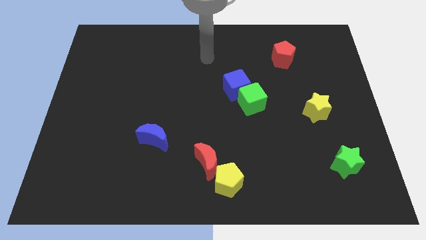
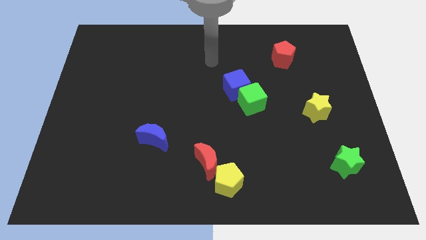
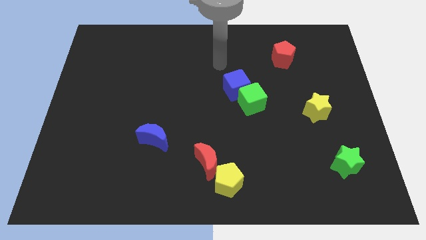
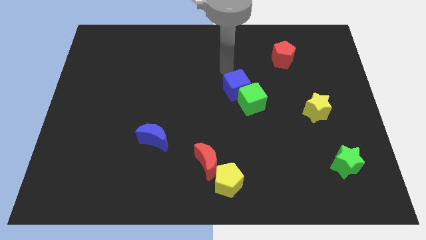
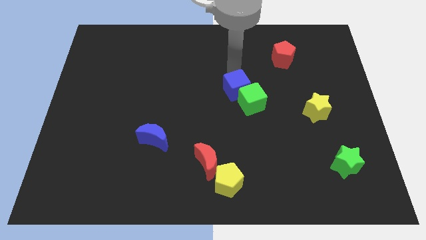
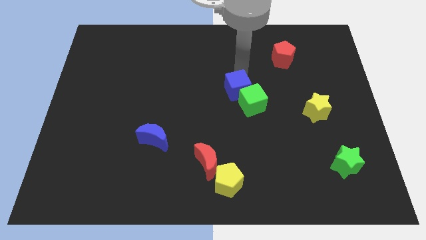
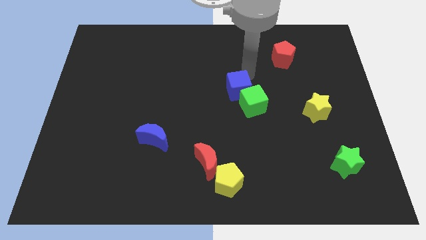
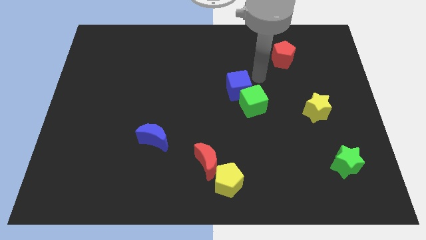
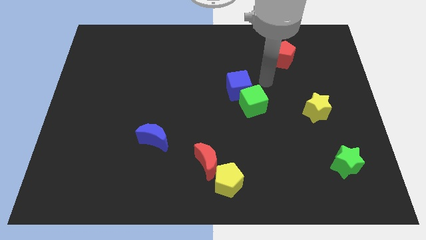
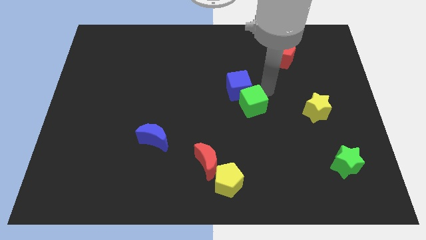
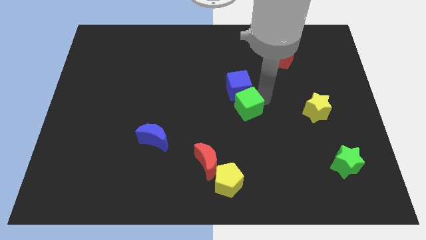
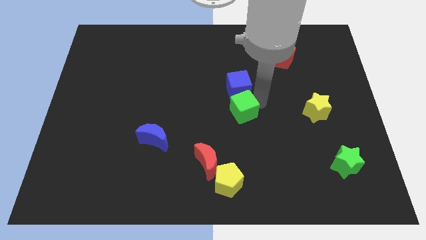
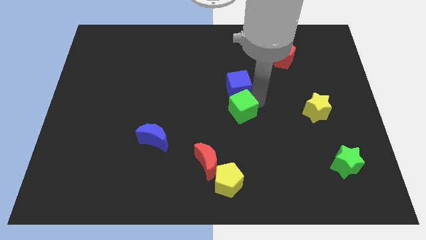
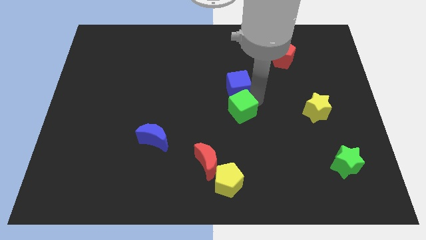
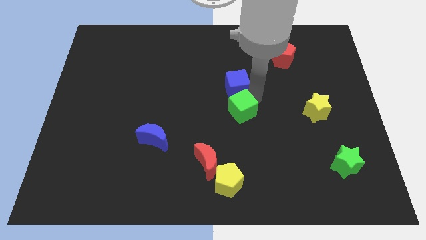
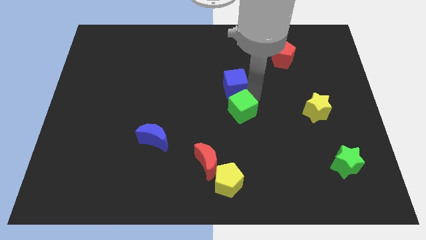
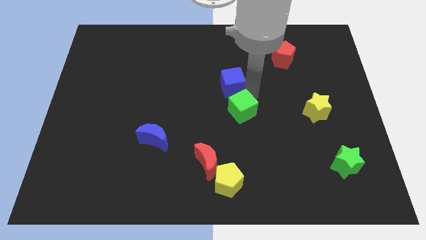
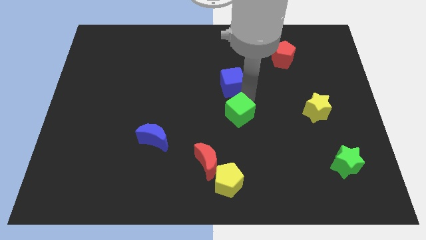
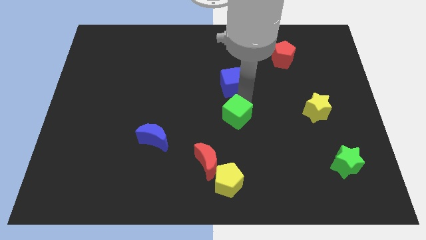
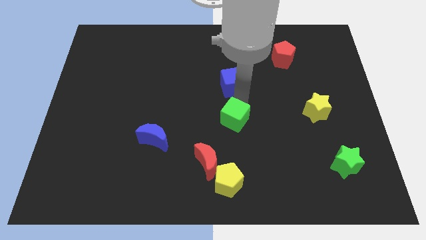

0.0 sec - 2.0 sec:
separate the blue cube from the green cube

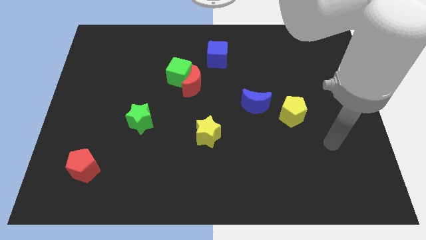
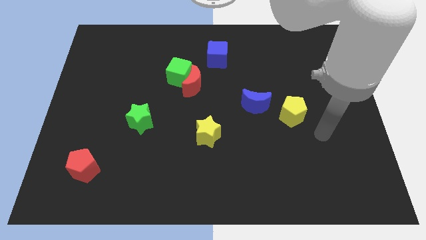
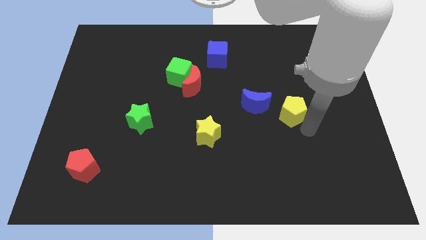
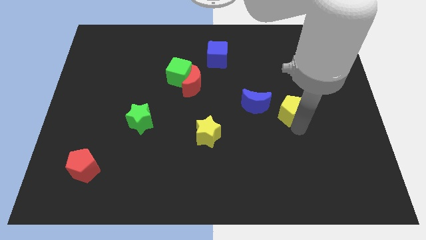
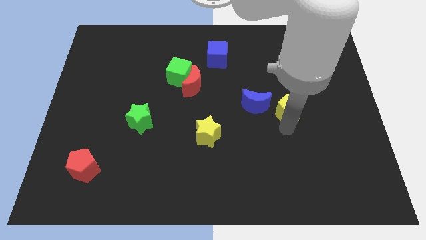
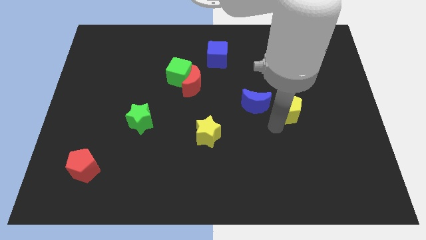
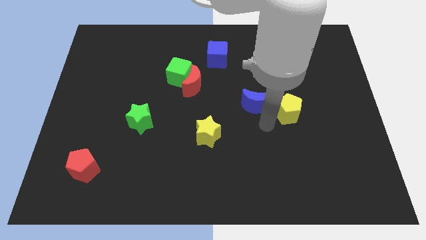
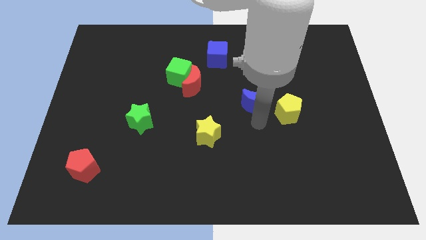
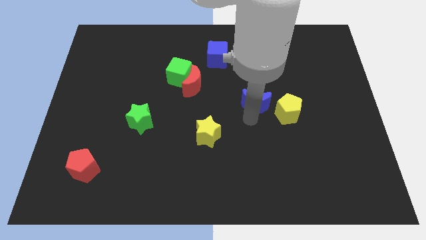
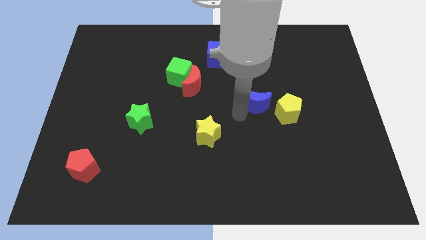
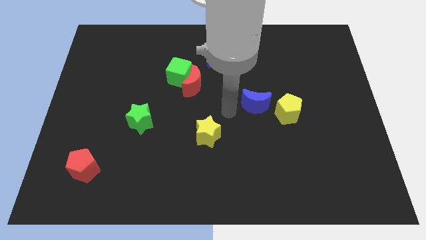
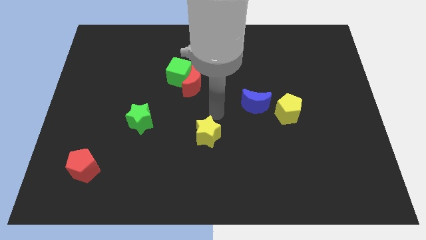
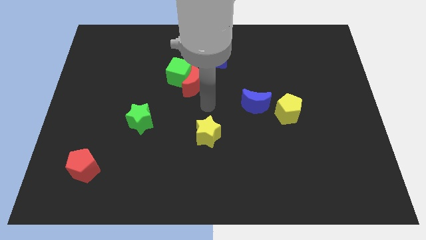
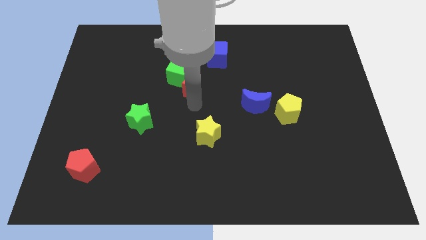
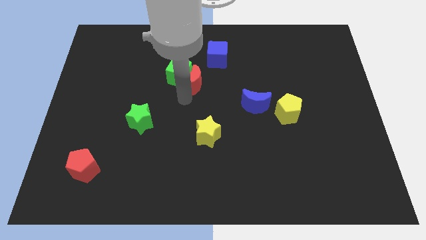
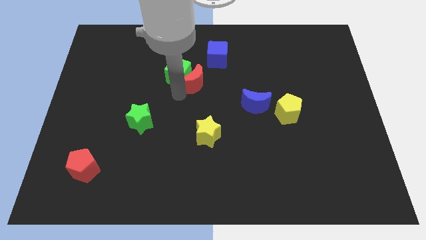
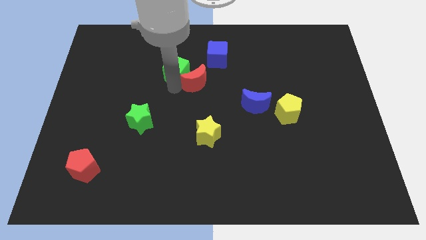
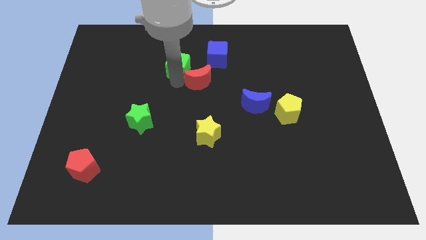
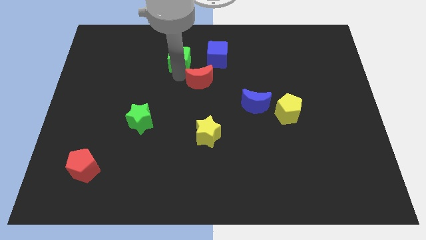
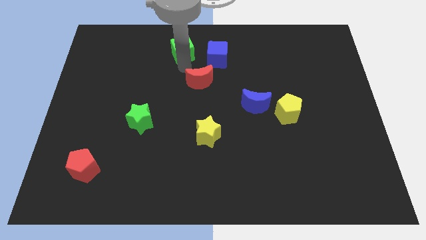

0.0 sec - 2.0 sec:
separate the red moon from the green cube

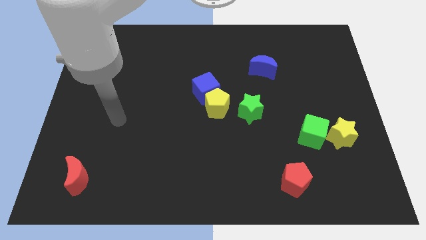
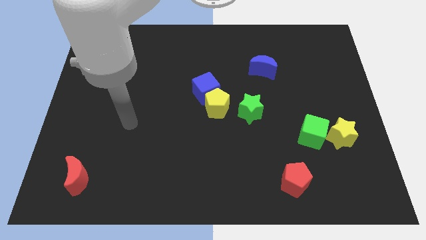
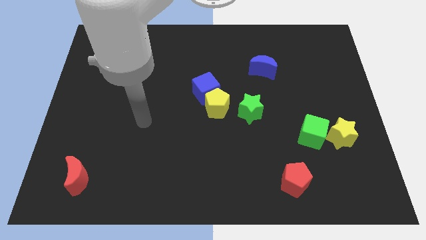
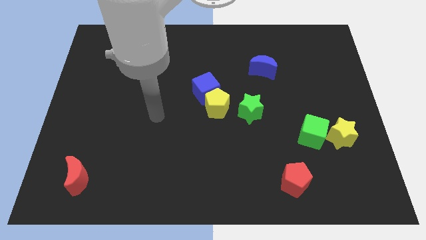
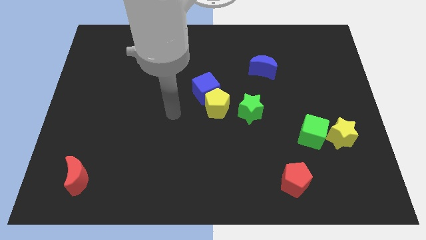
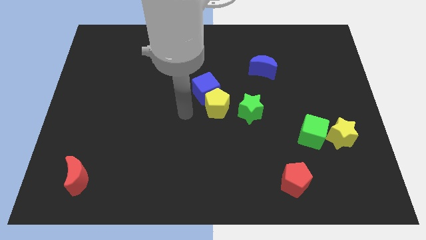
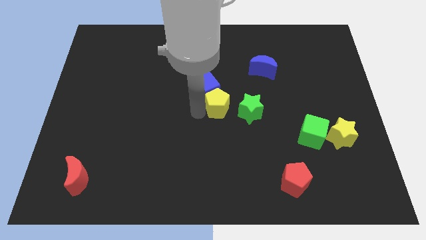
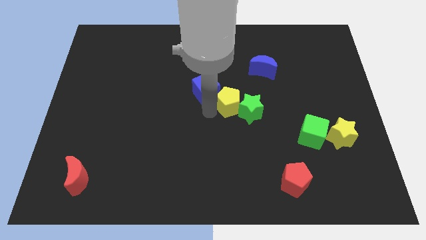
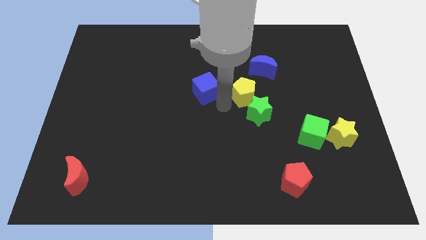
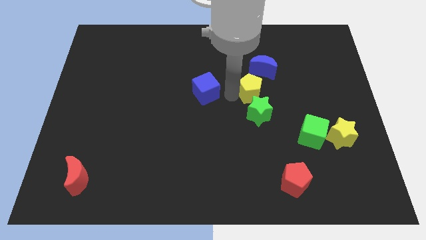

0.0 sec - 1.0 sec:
pull the blue cube apart from the yellow pentagon

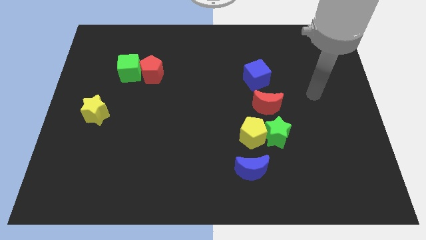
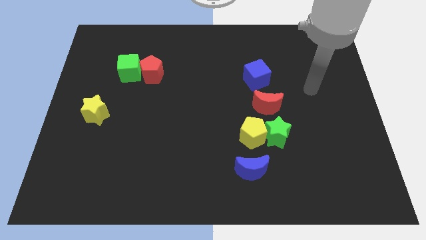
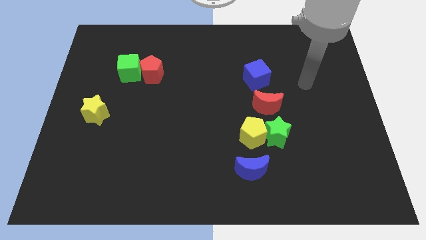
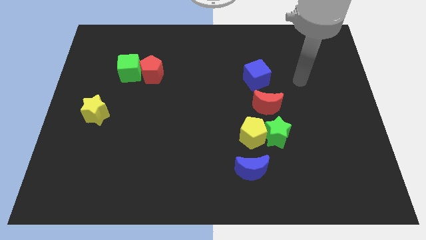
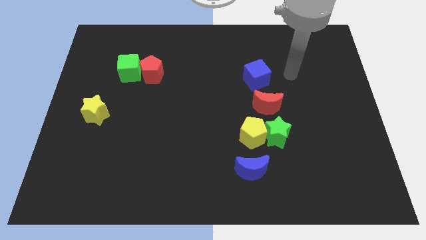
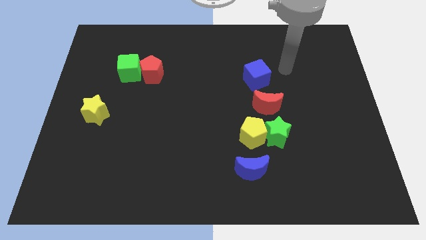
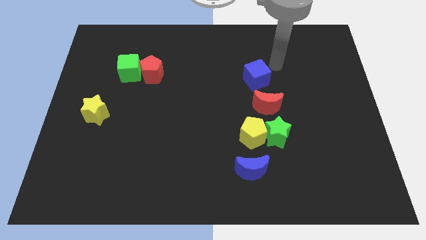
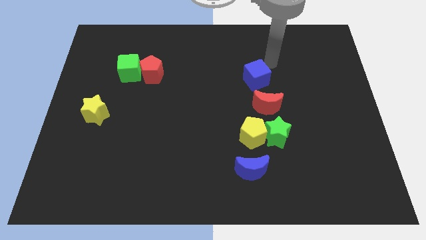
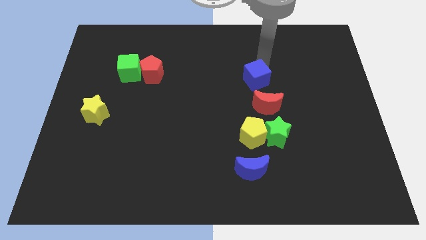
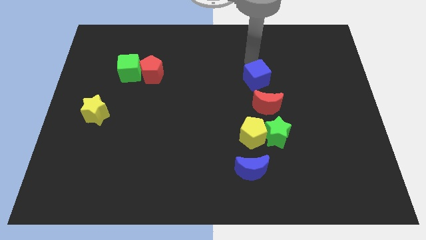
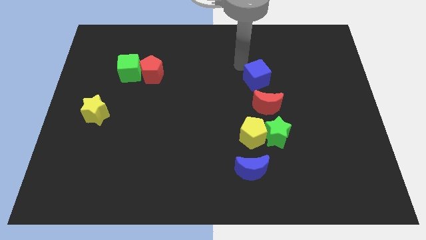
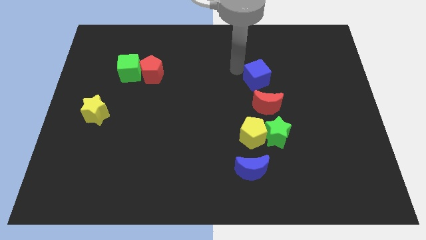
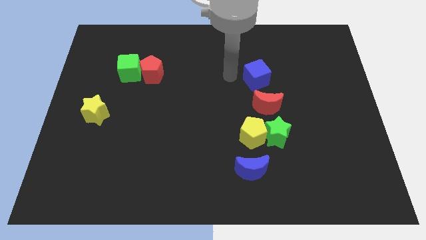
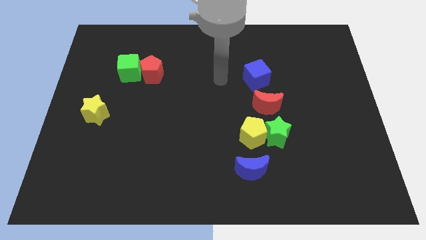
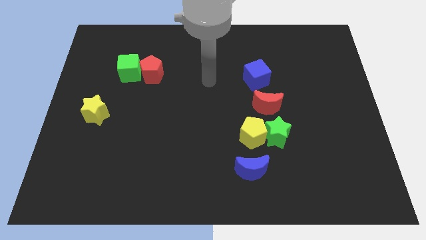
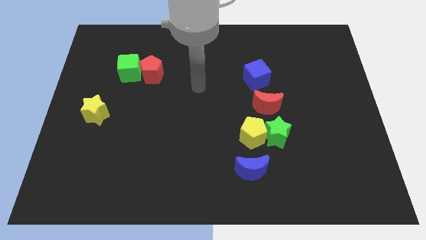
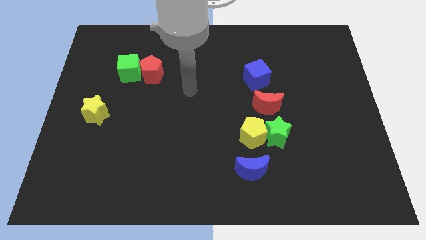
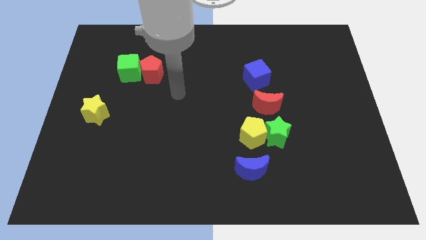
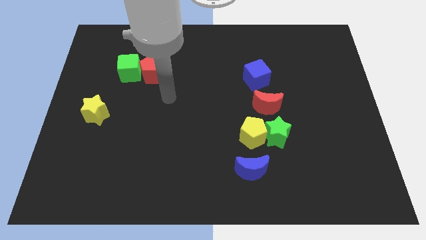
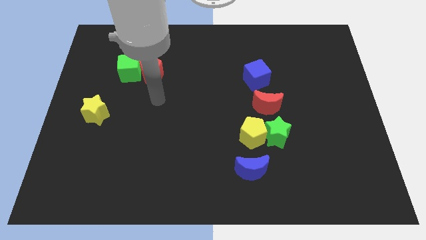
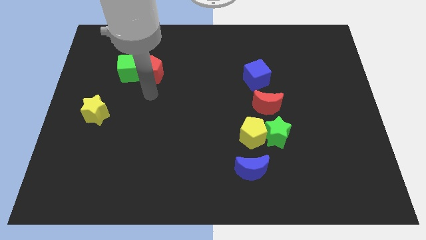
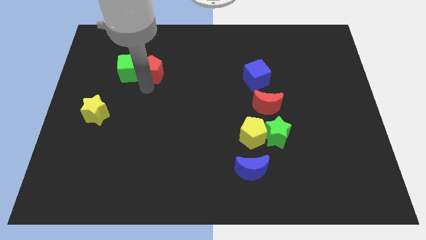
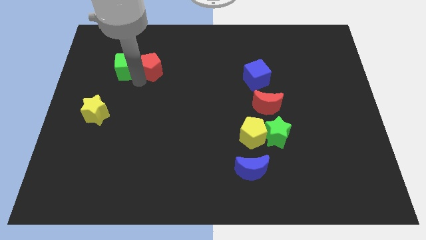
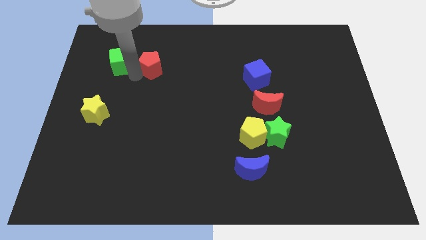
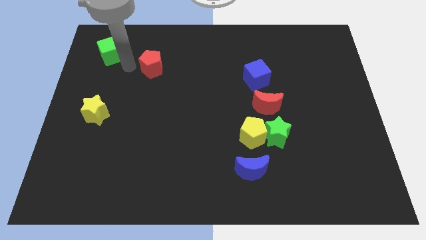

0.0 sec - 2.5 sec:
separate the red pentagon from the green cube

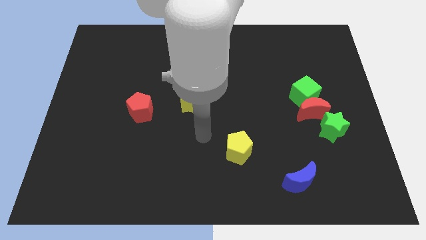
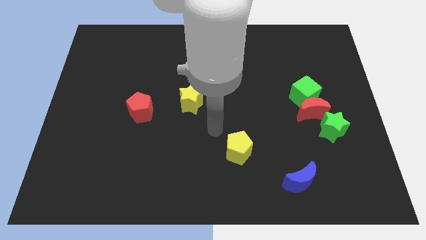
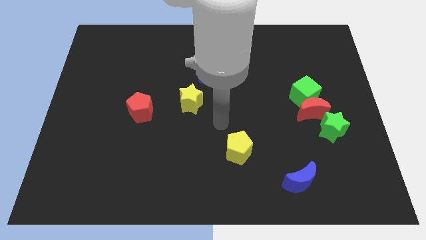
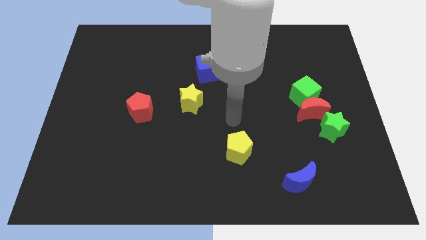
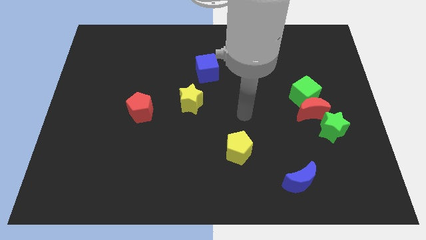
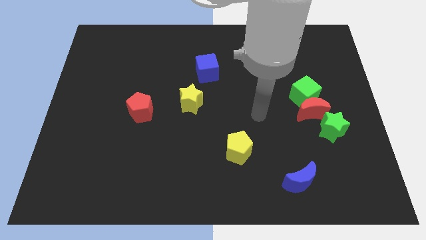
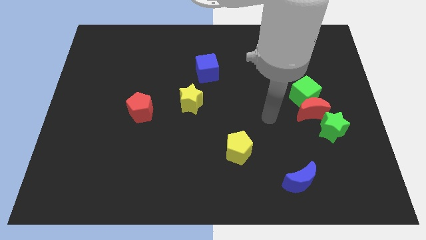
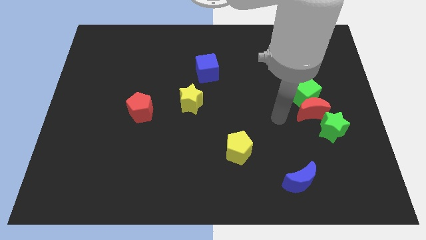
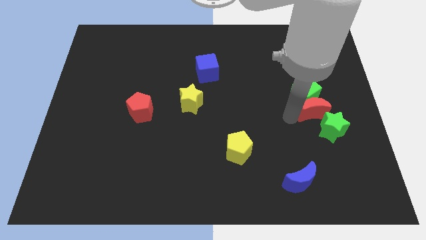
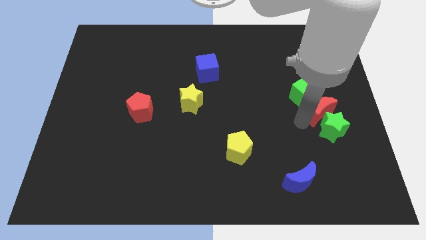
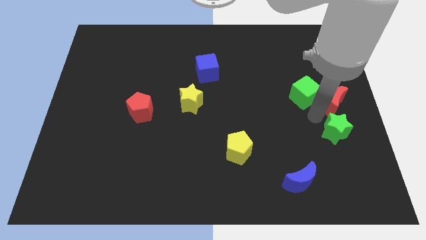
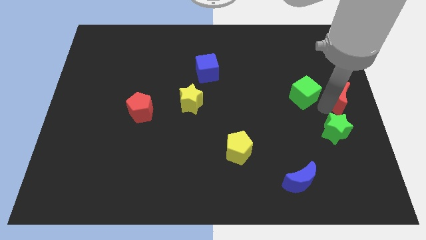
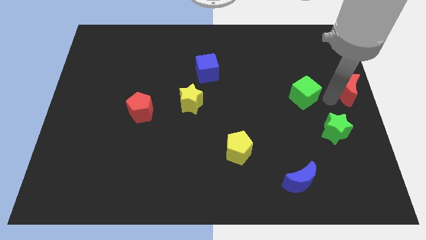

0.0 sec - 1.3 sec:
move the green cube away from the red moon

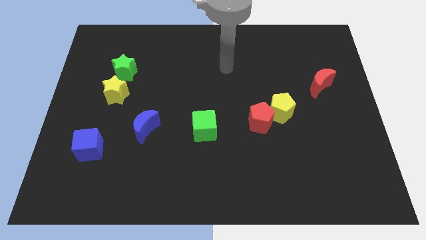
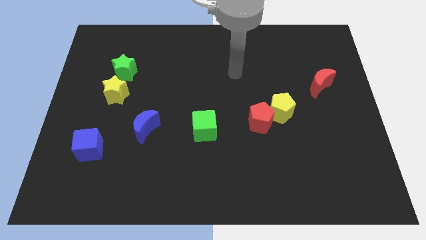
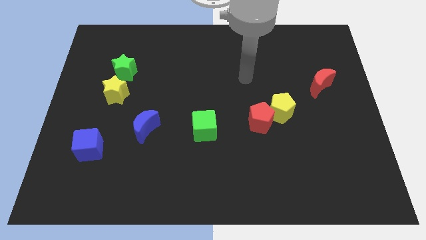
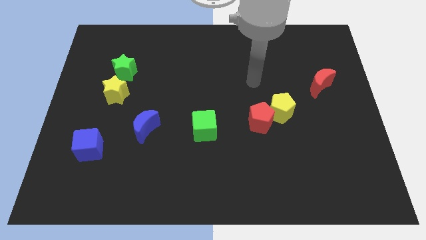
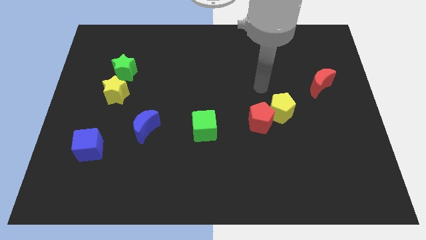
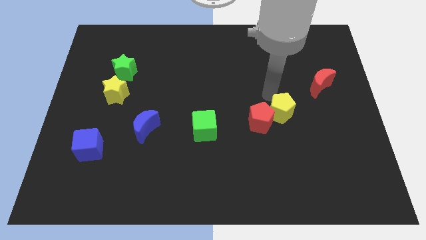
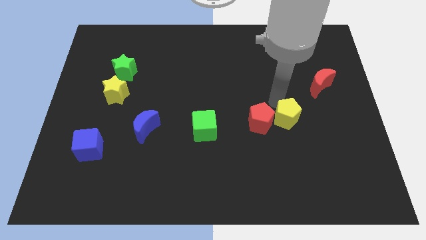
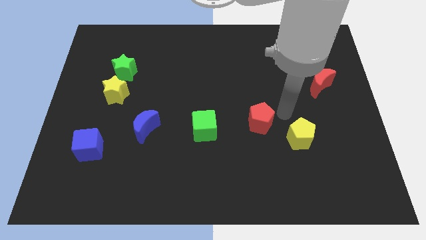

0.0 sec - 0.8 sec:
separate the red pentagon from the yellow pentagon
